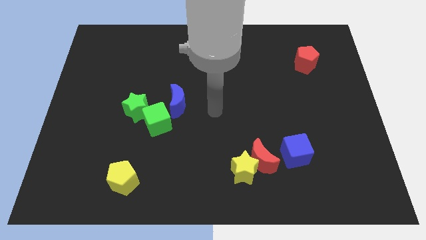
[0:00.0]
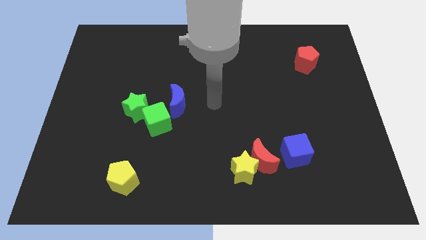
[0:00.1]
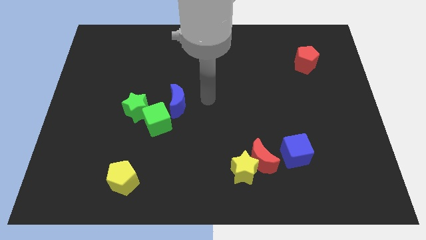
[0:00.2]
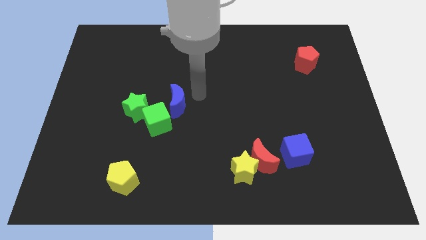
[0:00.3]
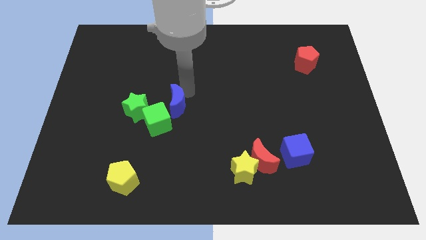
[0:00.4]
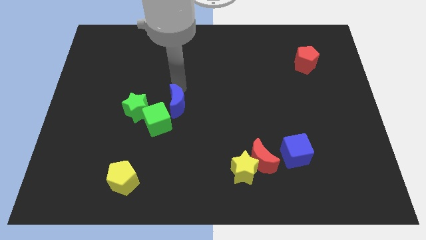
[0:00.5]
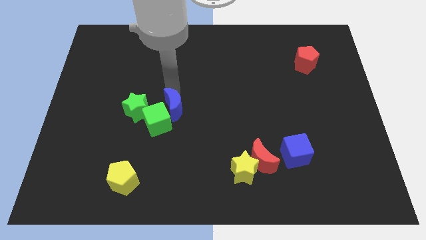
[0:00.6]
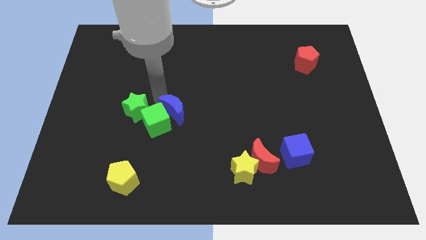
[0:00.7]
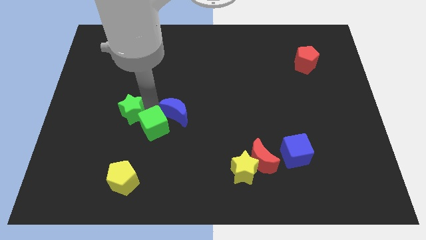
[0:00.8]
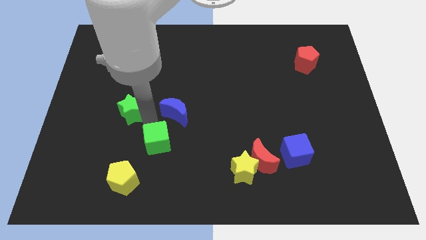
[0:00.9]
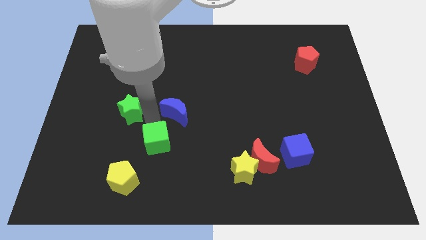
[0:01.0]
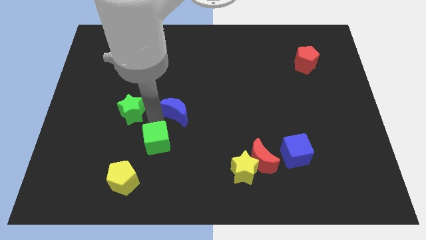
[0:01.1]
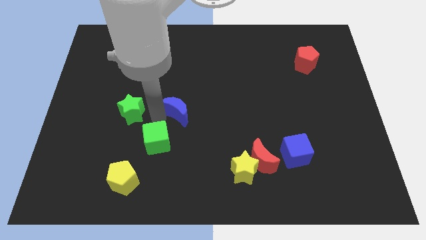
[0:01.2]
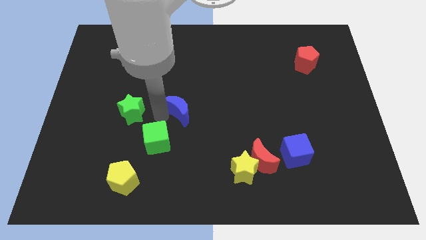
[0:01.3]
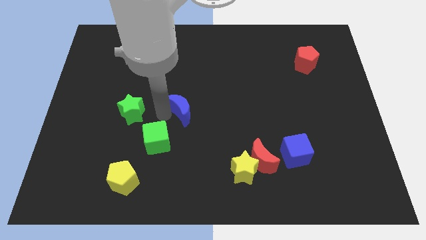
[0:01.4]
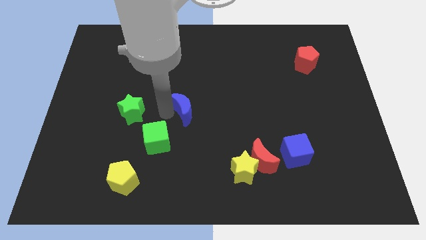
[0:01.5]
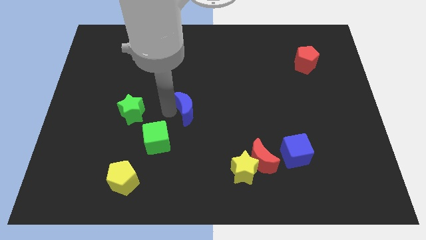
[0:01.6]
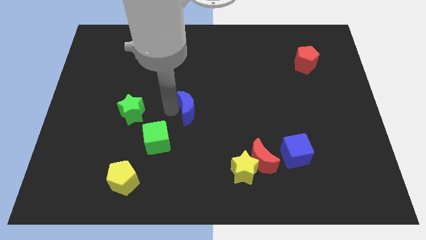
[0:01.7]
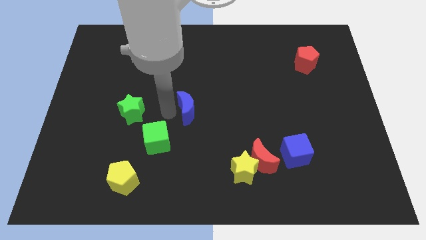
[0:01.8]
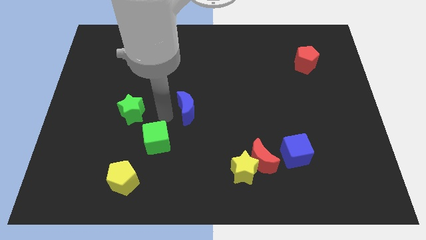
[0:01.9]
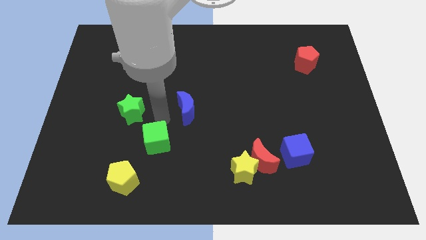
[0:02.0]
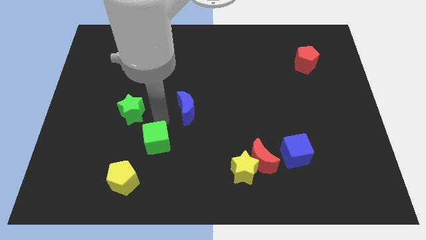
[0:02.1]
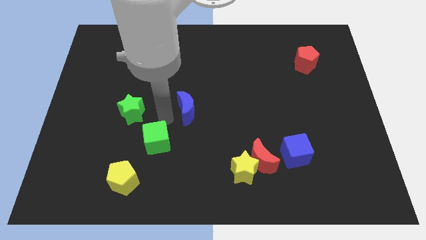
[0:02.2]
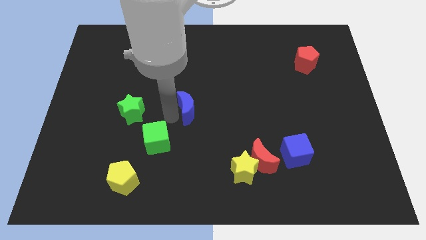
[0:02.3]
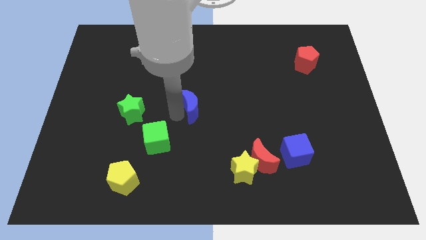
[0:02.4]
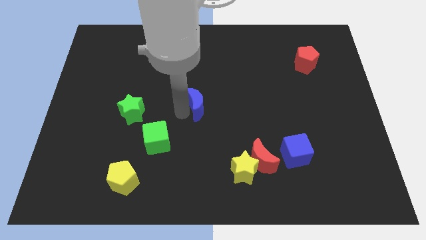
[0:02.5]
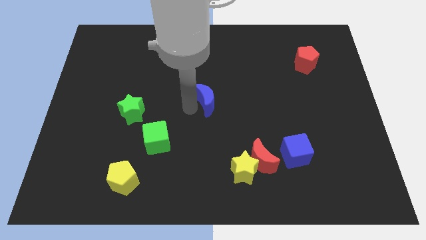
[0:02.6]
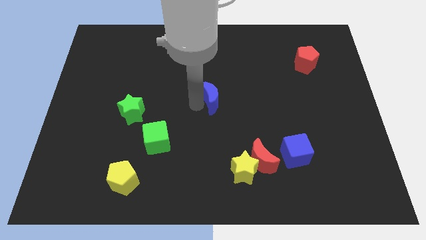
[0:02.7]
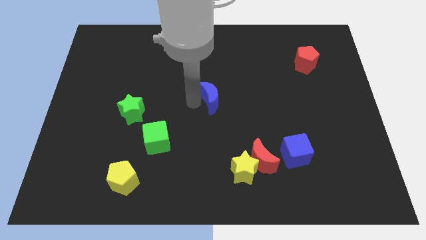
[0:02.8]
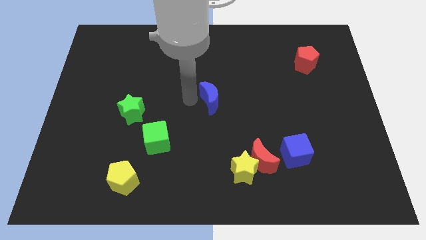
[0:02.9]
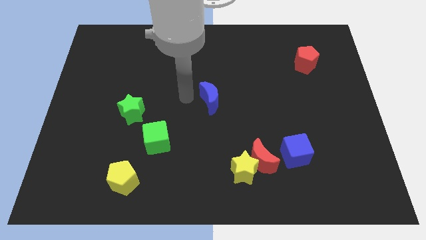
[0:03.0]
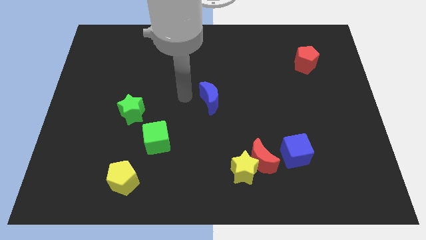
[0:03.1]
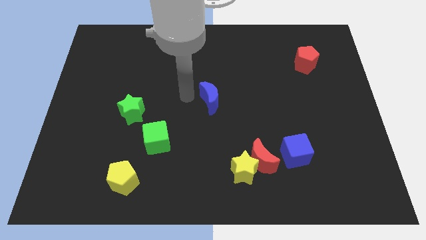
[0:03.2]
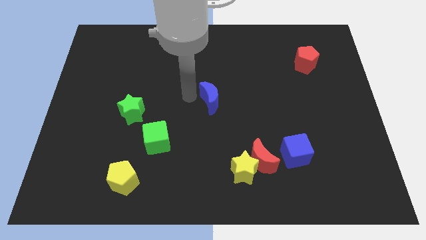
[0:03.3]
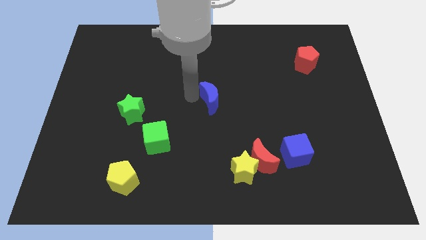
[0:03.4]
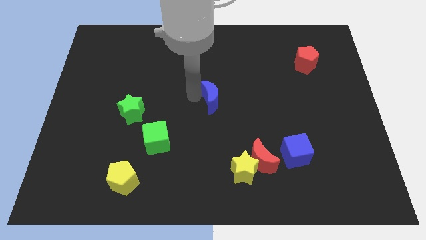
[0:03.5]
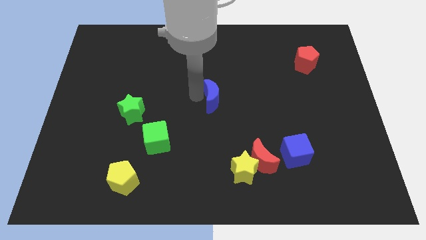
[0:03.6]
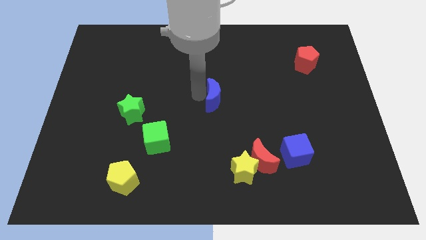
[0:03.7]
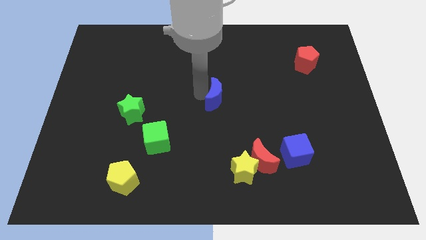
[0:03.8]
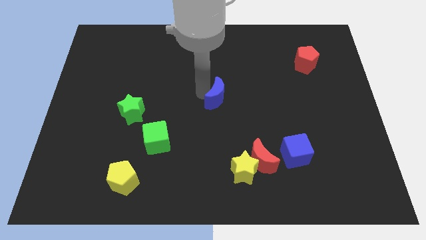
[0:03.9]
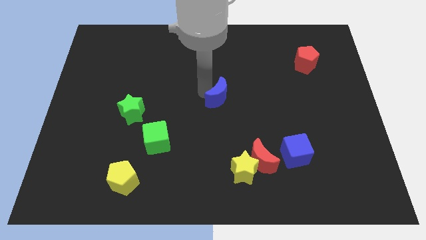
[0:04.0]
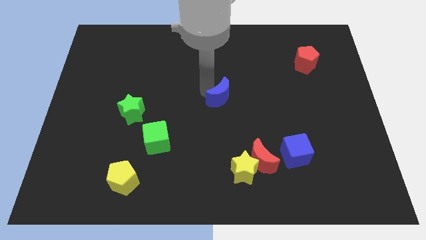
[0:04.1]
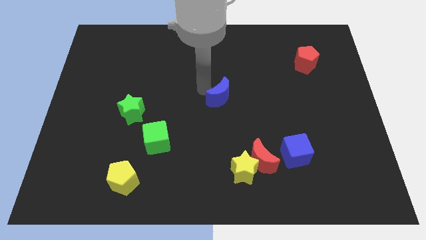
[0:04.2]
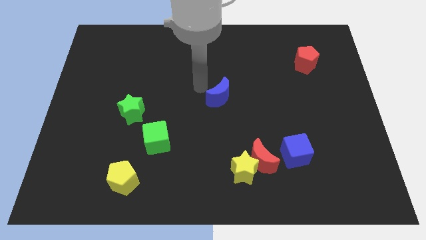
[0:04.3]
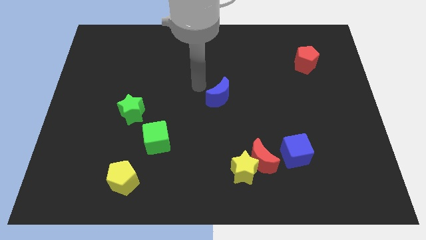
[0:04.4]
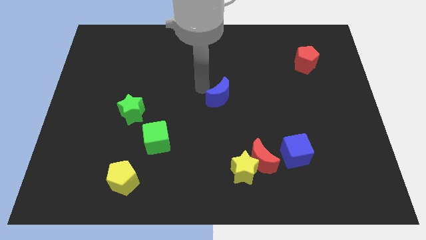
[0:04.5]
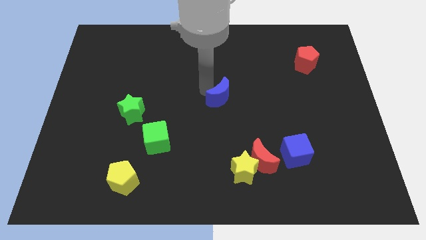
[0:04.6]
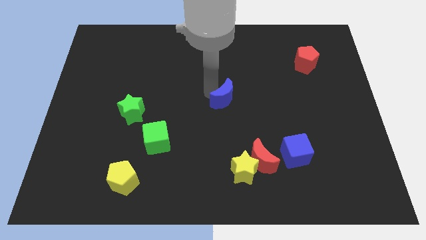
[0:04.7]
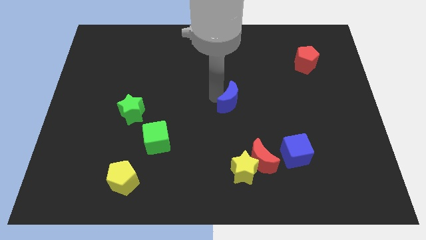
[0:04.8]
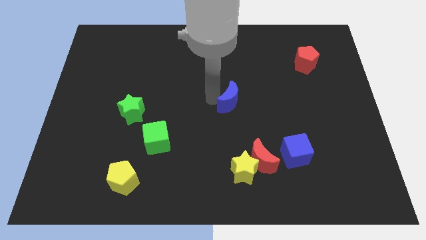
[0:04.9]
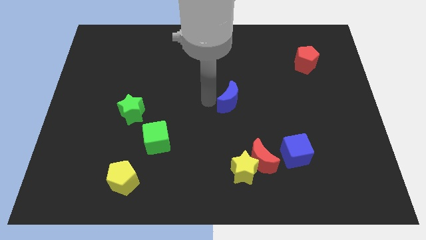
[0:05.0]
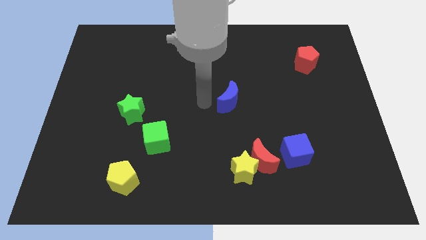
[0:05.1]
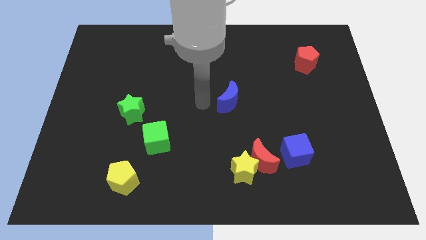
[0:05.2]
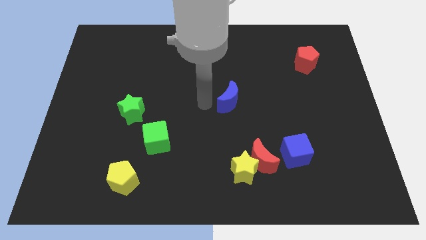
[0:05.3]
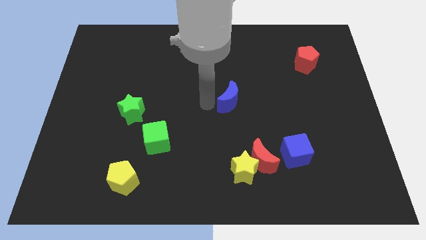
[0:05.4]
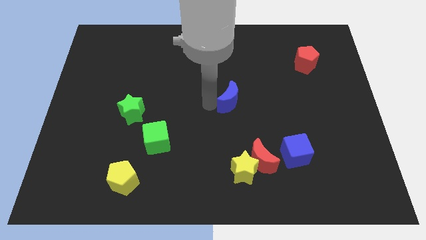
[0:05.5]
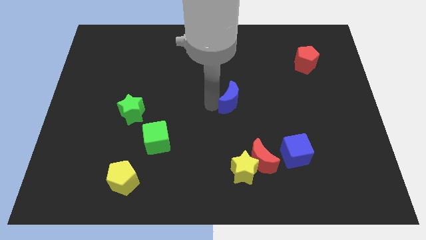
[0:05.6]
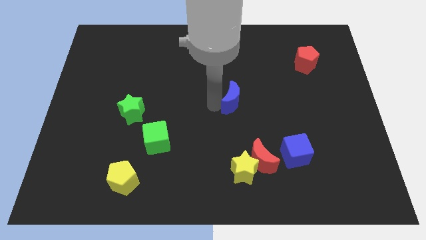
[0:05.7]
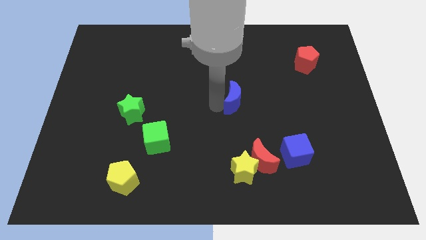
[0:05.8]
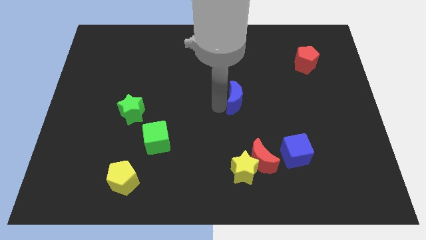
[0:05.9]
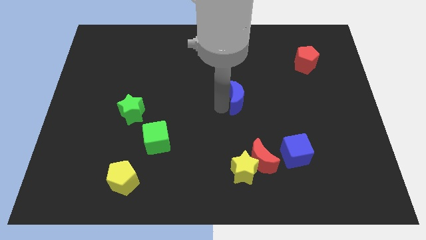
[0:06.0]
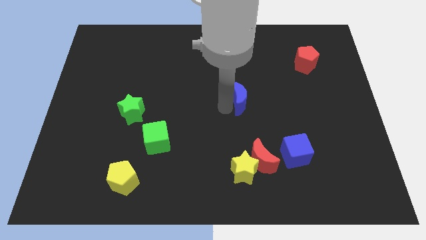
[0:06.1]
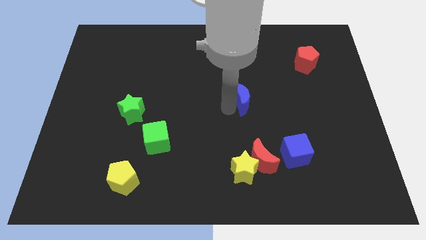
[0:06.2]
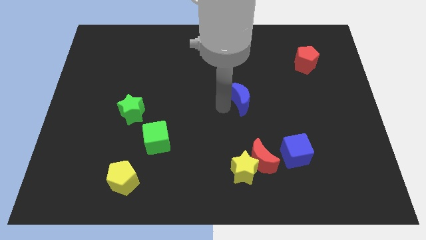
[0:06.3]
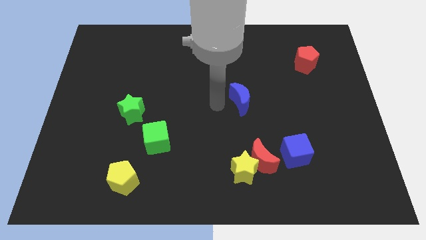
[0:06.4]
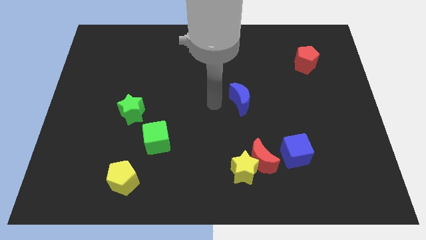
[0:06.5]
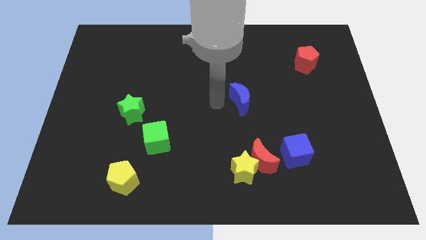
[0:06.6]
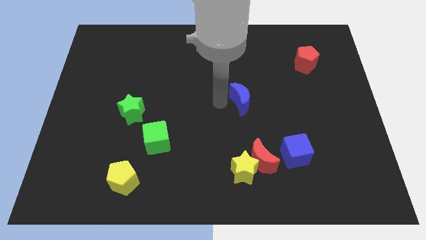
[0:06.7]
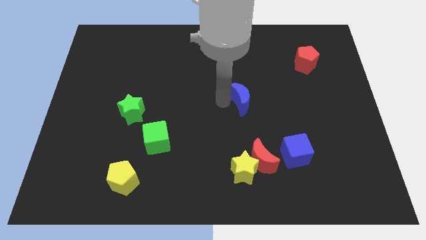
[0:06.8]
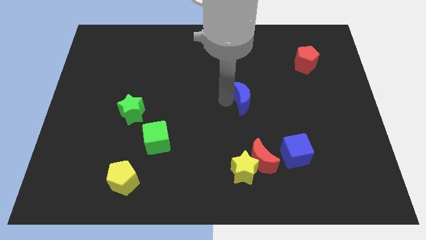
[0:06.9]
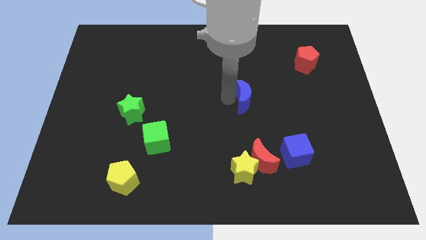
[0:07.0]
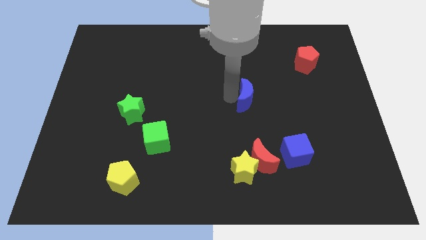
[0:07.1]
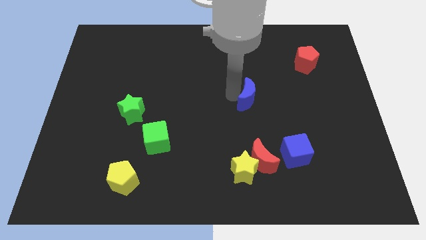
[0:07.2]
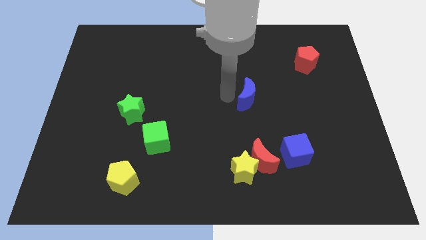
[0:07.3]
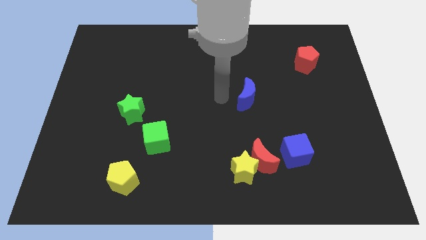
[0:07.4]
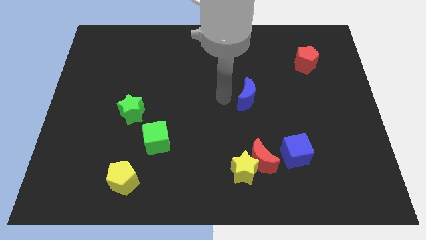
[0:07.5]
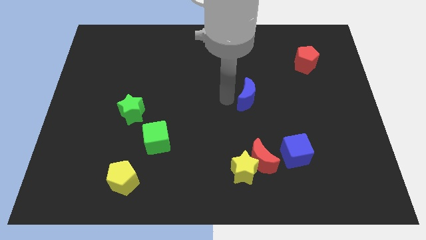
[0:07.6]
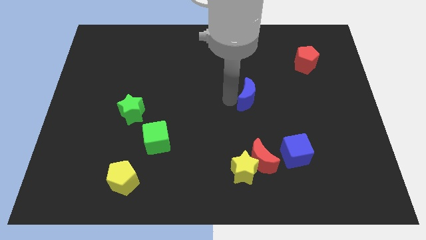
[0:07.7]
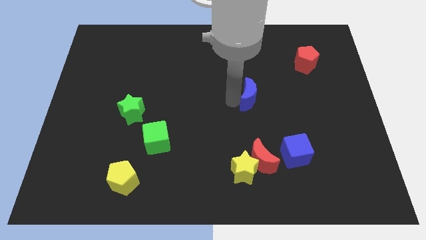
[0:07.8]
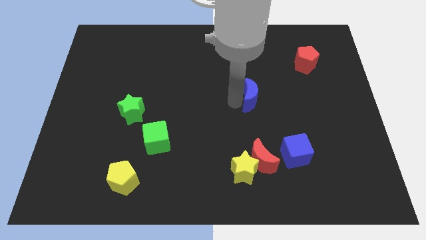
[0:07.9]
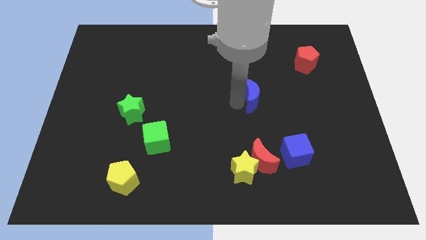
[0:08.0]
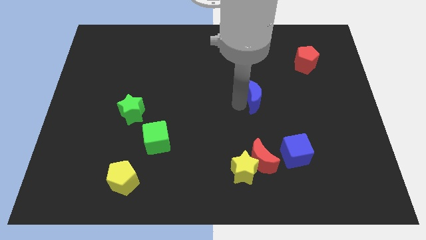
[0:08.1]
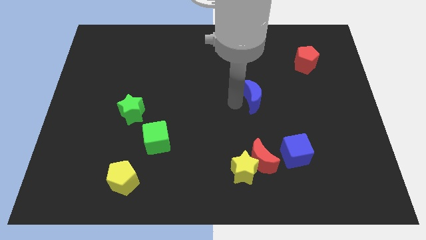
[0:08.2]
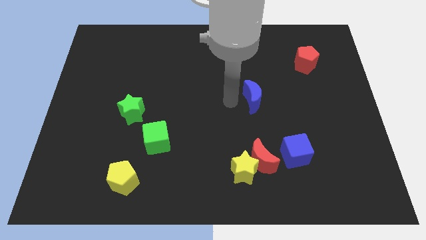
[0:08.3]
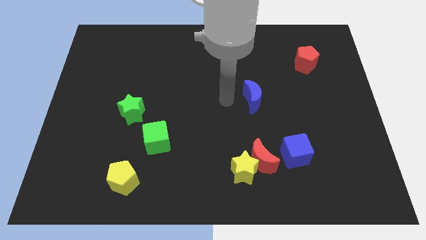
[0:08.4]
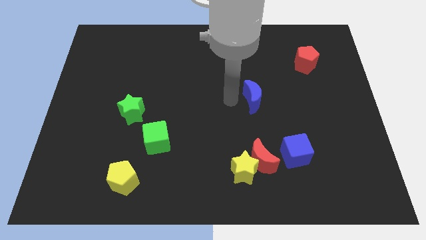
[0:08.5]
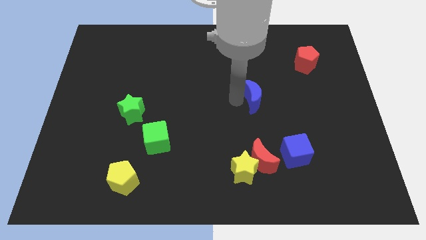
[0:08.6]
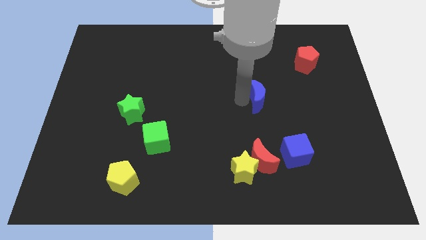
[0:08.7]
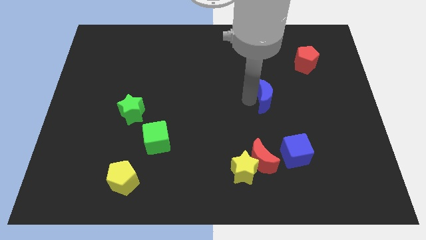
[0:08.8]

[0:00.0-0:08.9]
push the blue moon to the right
